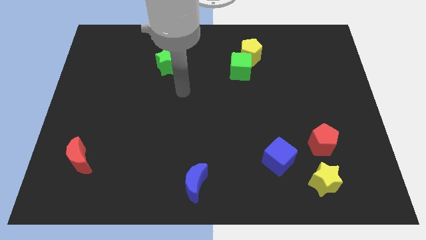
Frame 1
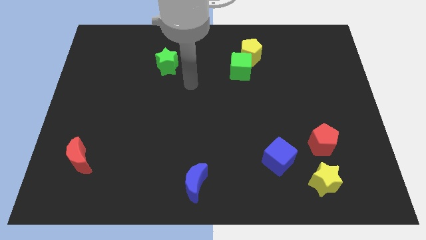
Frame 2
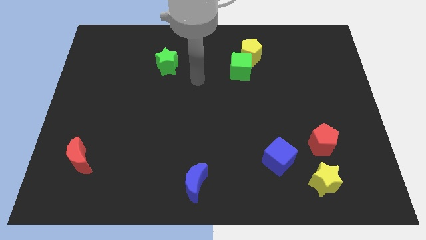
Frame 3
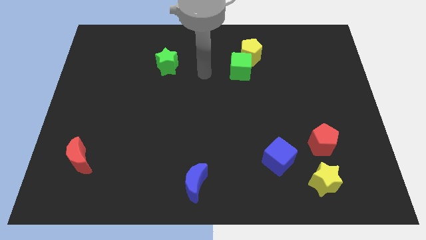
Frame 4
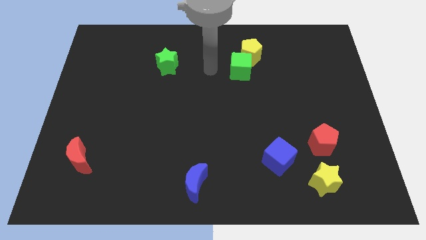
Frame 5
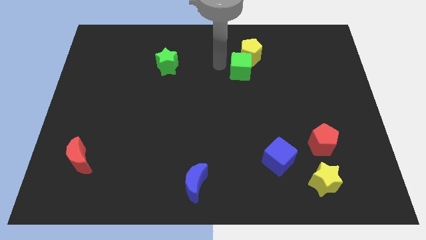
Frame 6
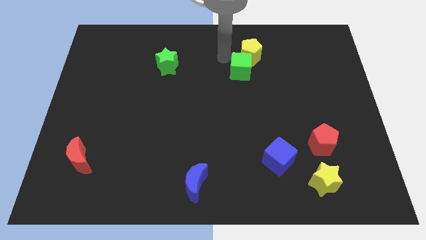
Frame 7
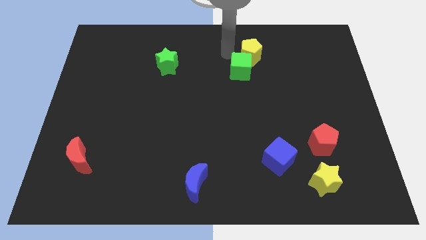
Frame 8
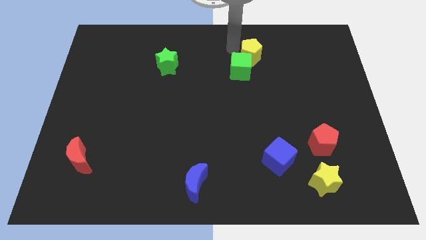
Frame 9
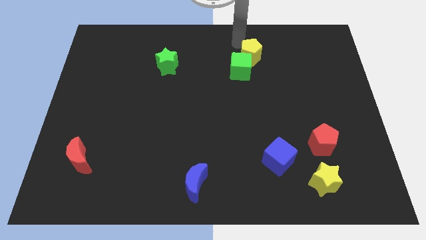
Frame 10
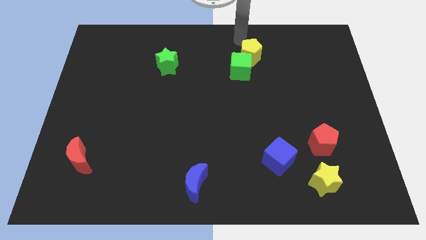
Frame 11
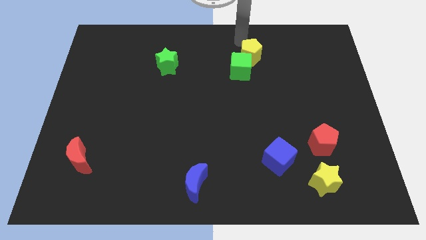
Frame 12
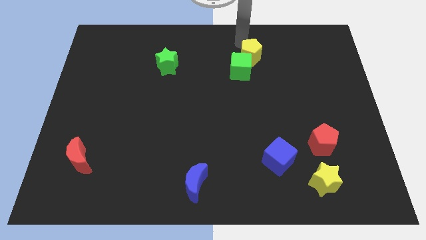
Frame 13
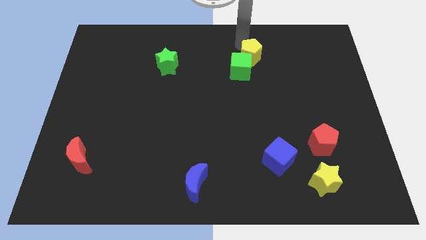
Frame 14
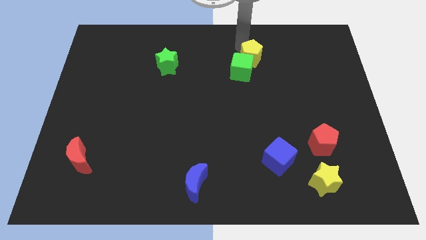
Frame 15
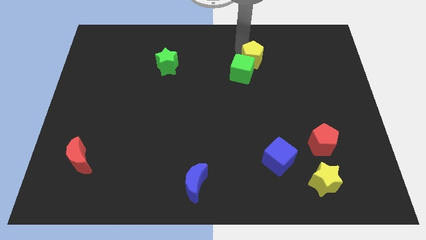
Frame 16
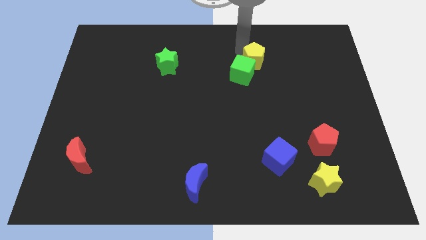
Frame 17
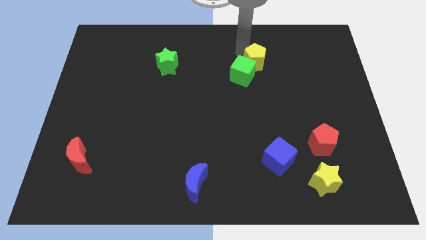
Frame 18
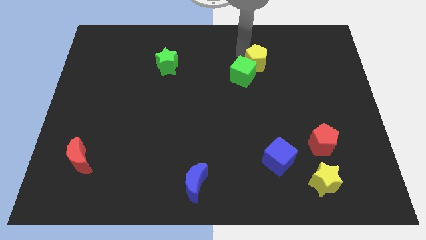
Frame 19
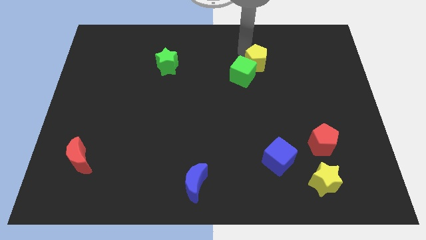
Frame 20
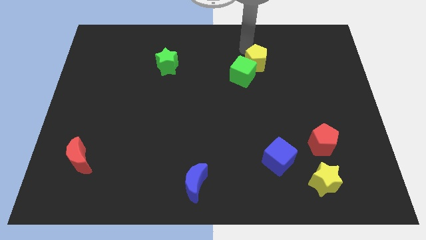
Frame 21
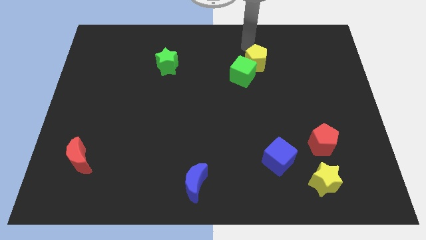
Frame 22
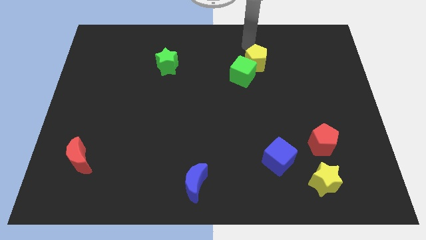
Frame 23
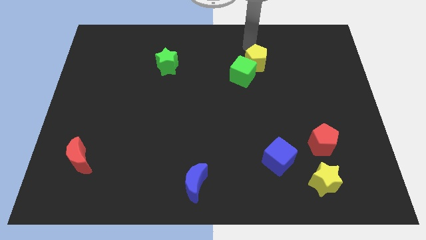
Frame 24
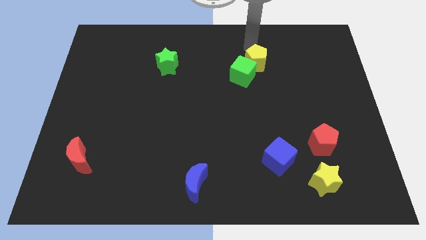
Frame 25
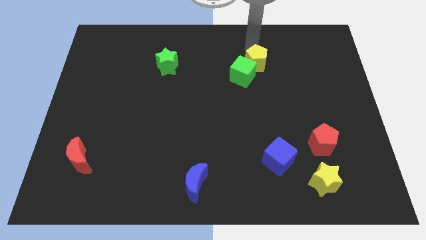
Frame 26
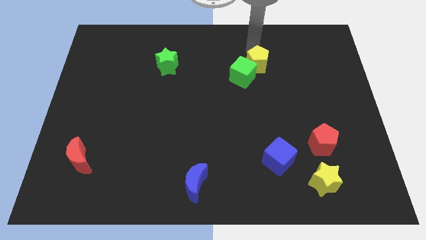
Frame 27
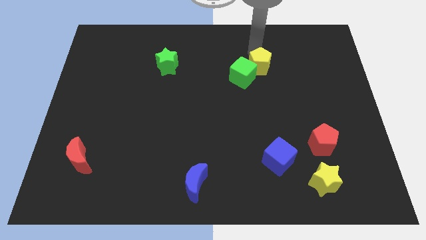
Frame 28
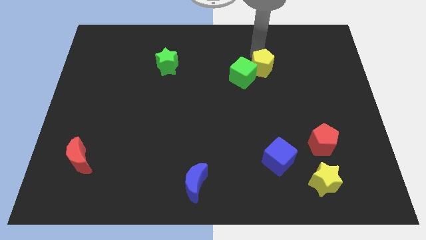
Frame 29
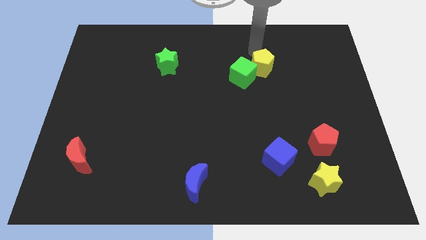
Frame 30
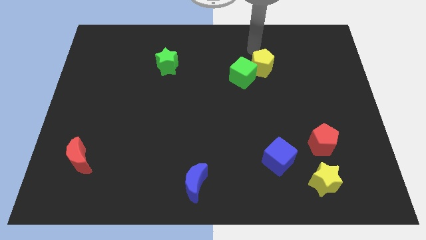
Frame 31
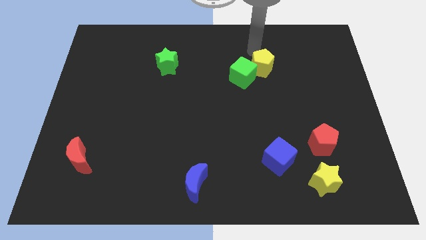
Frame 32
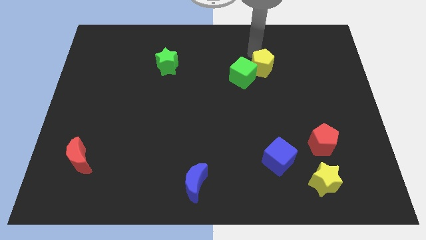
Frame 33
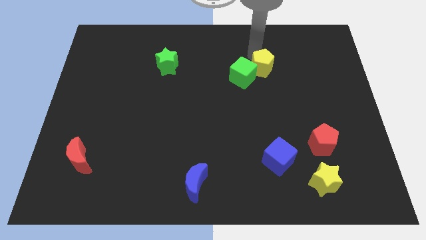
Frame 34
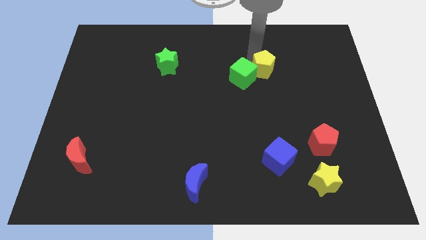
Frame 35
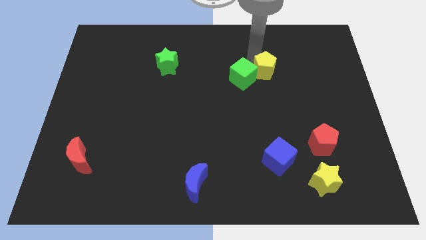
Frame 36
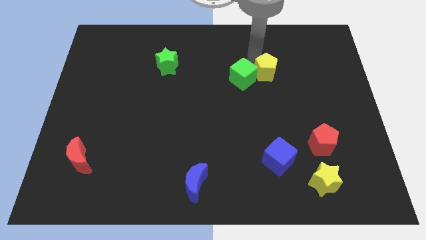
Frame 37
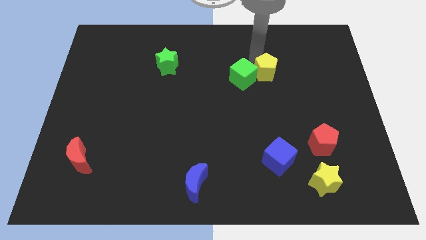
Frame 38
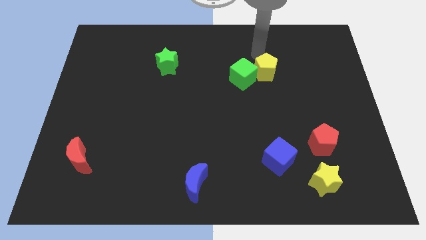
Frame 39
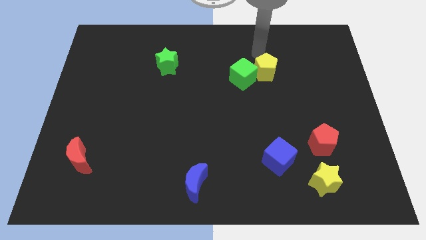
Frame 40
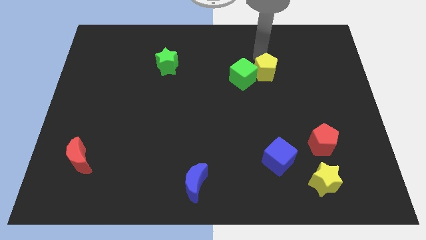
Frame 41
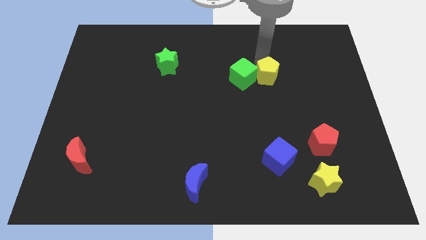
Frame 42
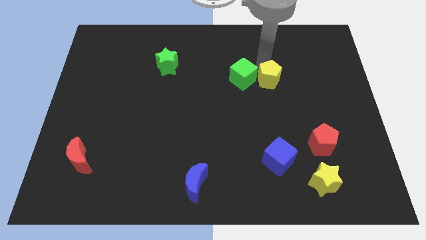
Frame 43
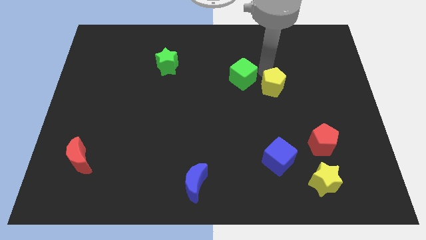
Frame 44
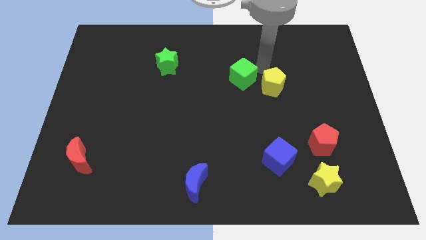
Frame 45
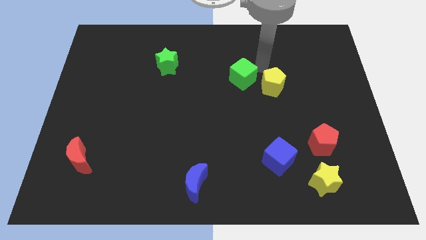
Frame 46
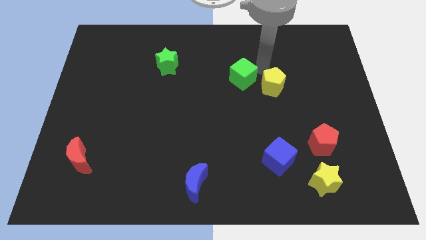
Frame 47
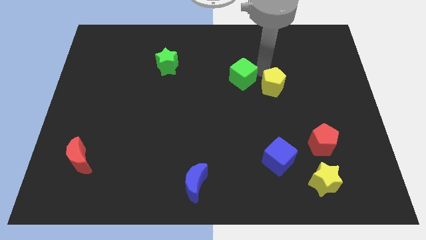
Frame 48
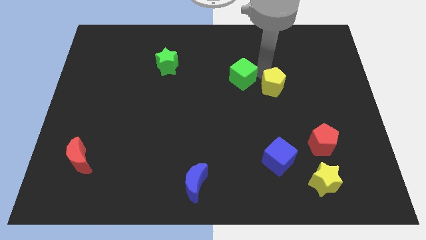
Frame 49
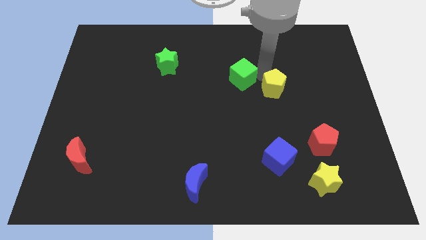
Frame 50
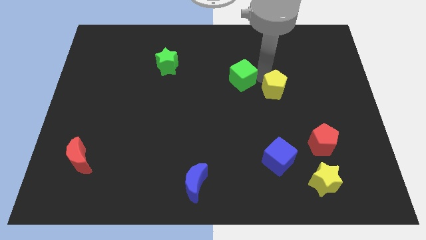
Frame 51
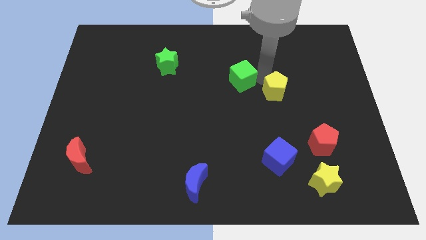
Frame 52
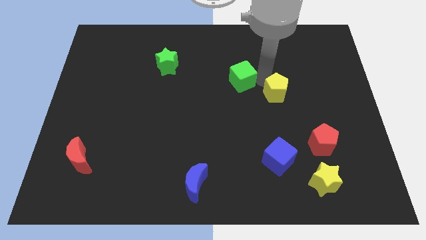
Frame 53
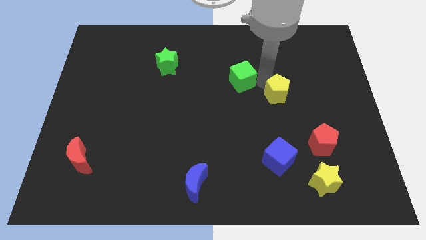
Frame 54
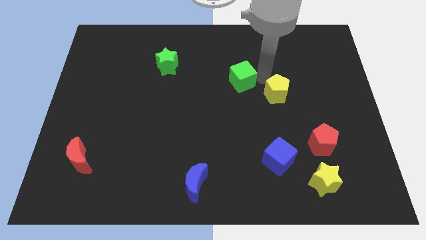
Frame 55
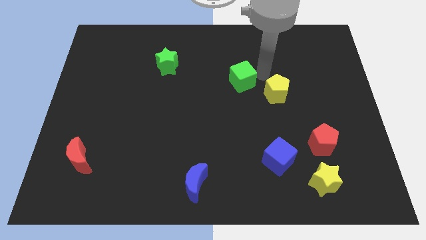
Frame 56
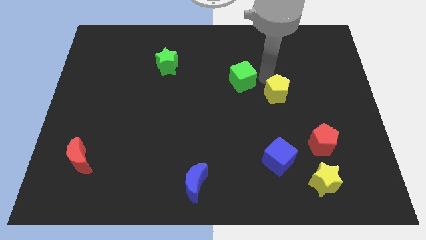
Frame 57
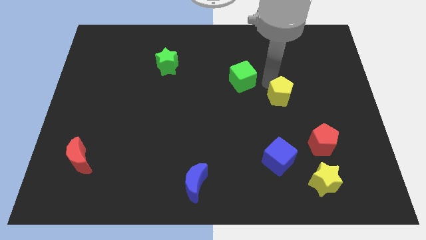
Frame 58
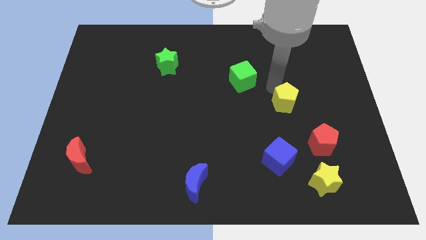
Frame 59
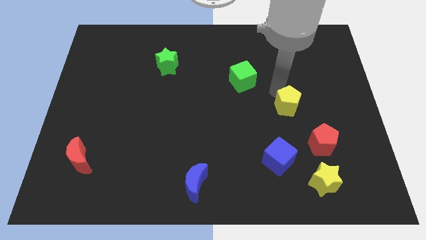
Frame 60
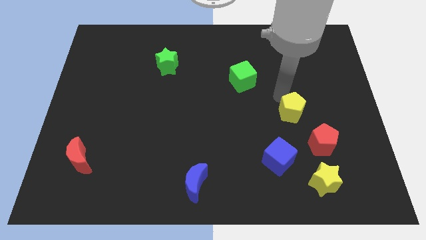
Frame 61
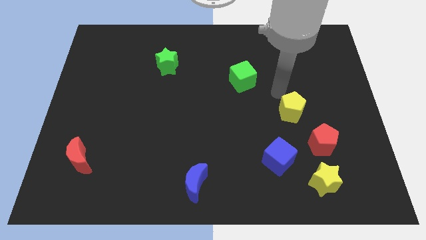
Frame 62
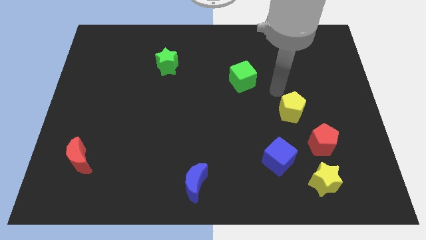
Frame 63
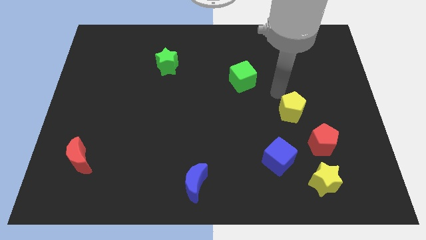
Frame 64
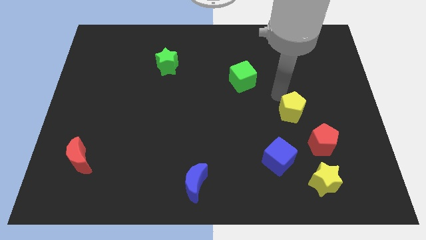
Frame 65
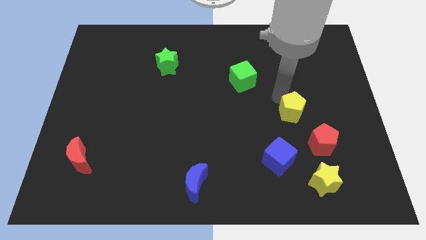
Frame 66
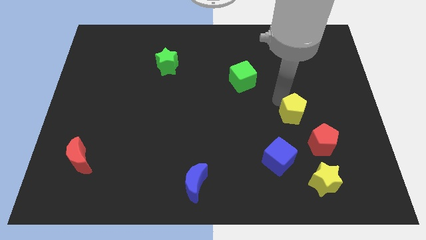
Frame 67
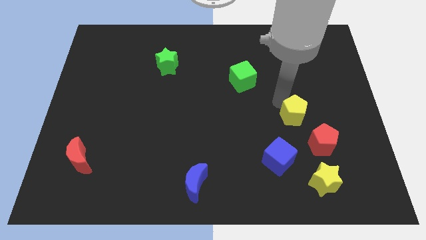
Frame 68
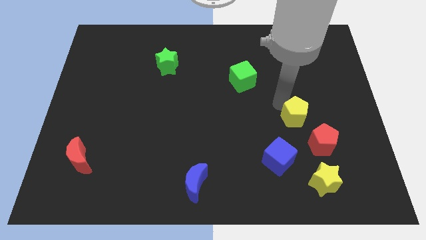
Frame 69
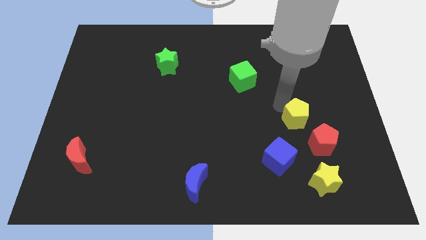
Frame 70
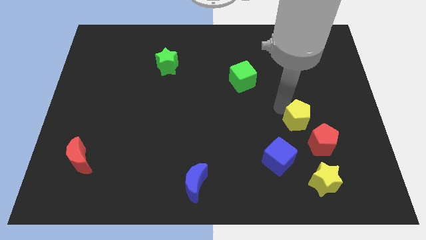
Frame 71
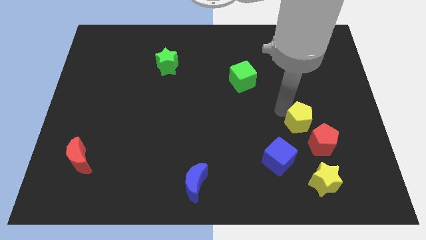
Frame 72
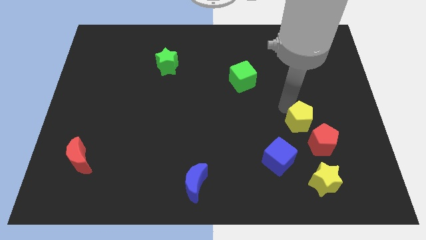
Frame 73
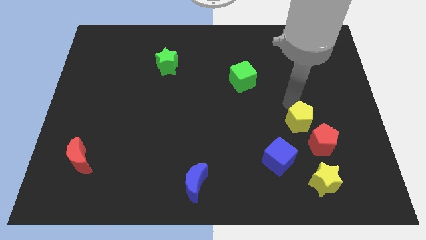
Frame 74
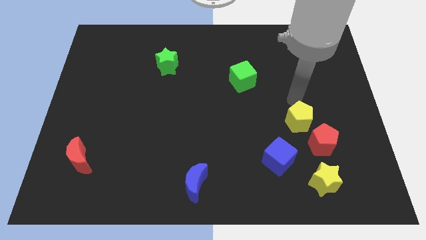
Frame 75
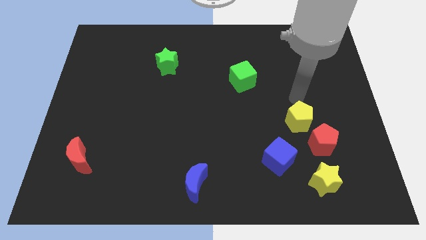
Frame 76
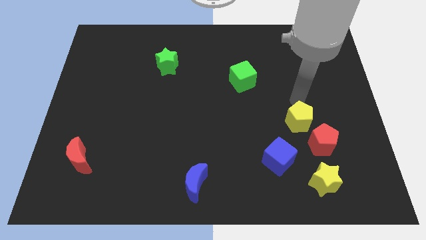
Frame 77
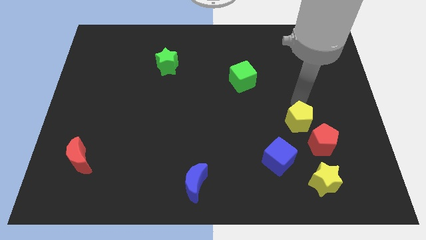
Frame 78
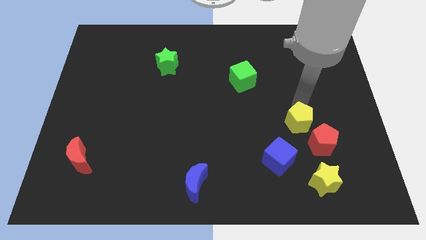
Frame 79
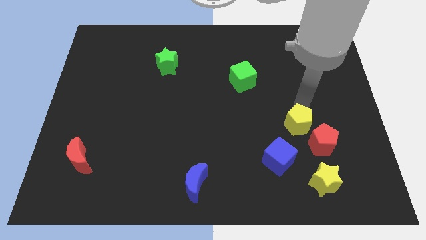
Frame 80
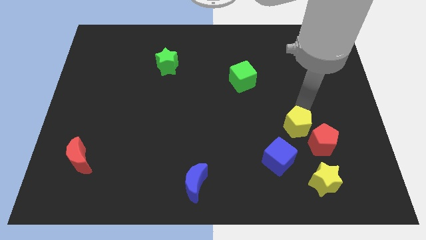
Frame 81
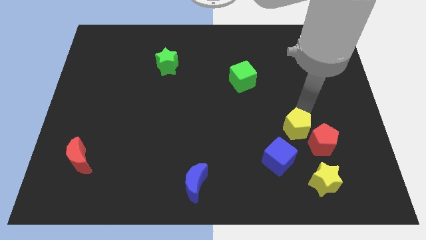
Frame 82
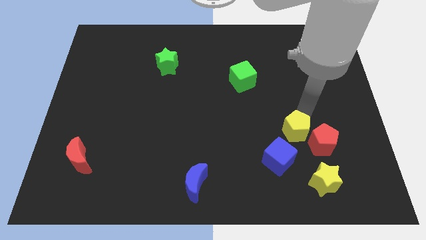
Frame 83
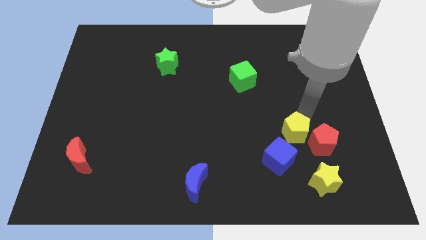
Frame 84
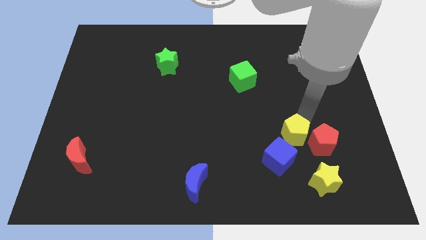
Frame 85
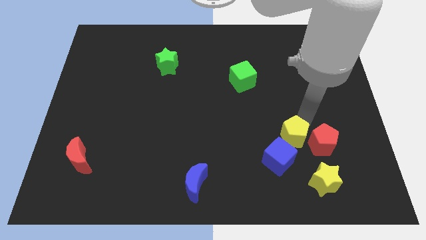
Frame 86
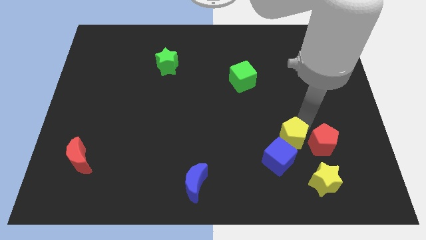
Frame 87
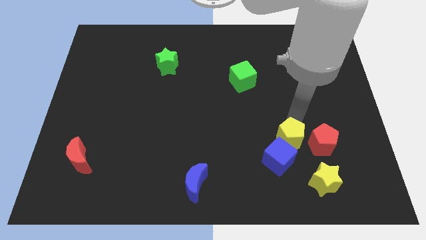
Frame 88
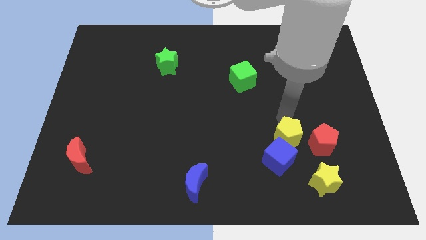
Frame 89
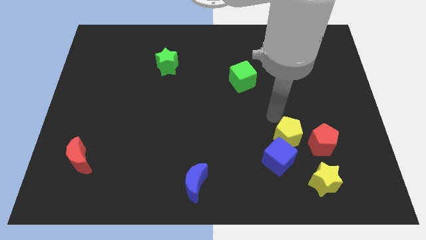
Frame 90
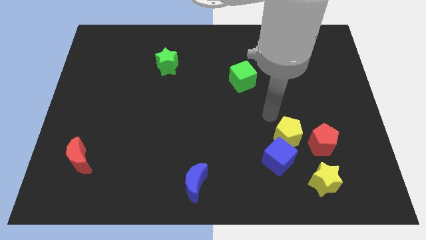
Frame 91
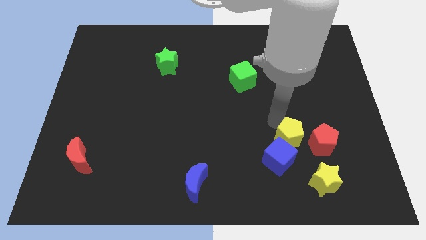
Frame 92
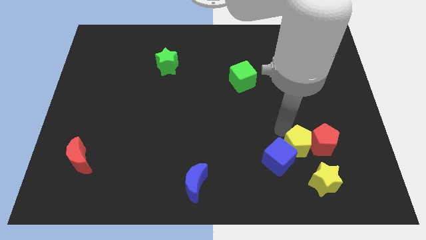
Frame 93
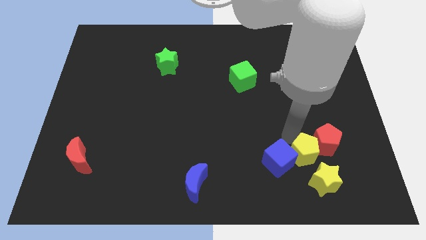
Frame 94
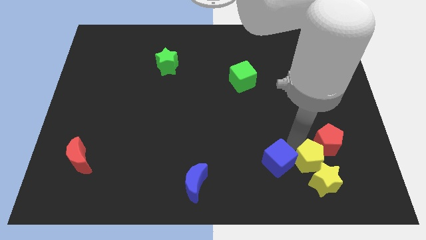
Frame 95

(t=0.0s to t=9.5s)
push the yellow pentagon to the yellow star
